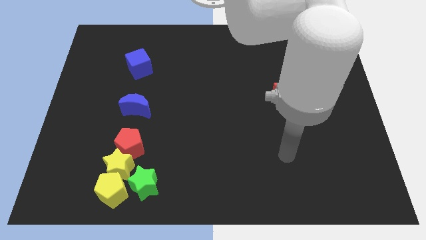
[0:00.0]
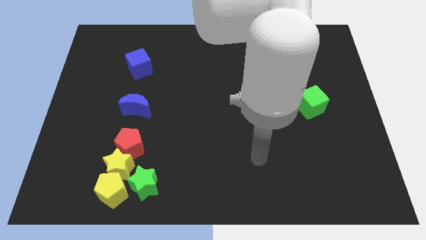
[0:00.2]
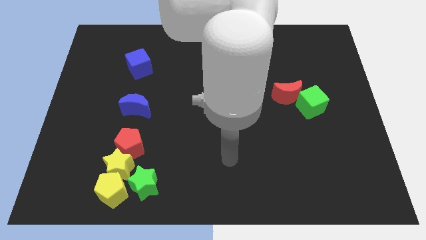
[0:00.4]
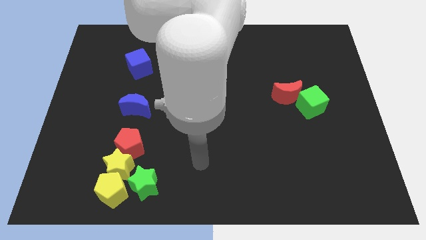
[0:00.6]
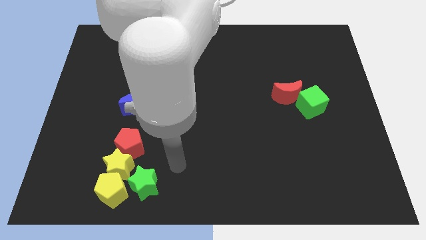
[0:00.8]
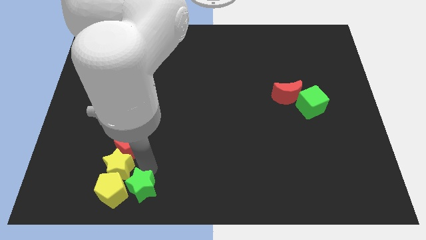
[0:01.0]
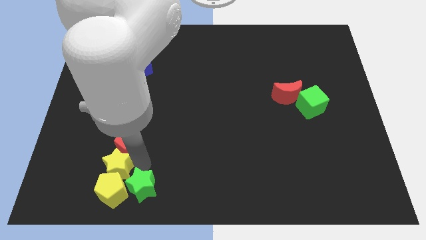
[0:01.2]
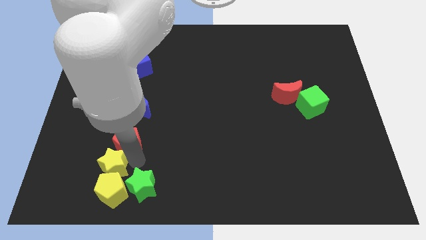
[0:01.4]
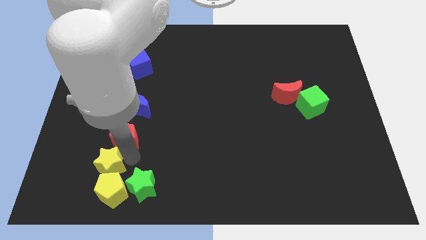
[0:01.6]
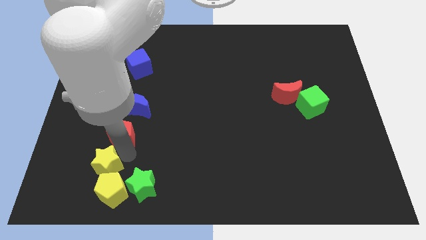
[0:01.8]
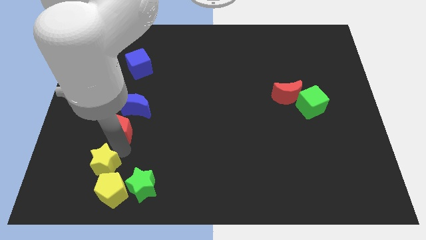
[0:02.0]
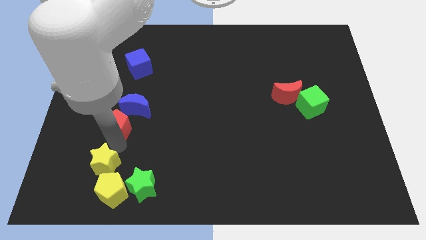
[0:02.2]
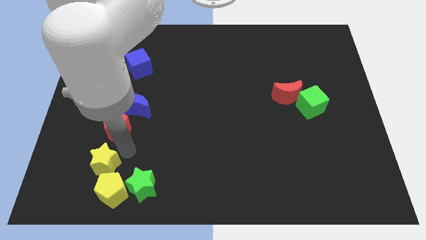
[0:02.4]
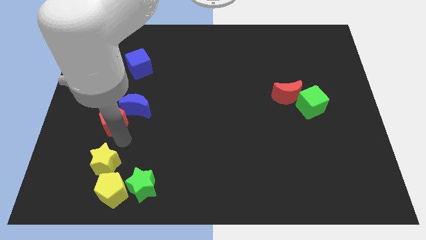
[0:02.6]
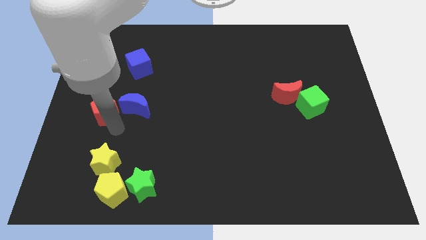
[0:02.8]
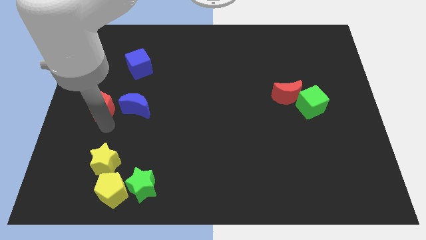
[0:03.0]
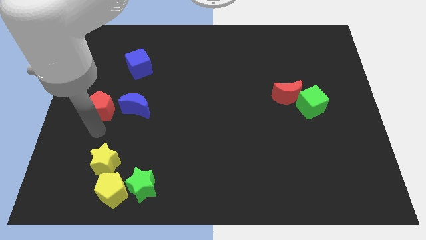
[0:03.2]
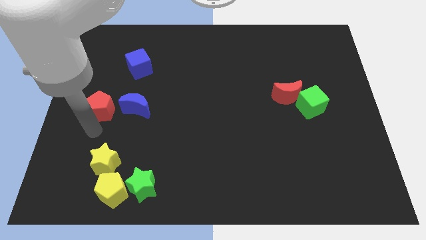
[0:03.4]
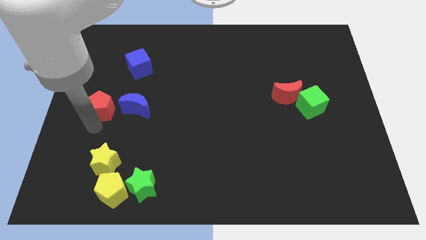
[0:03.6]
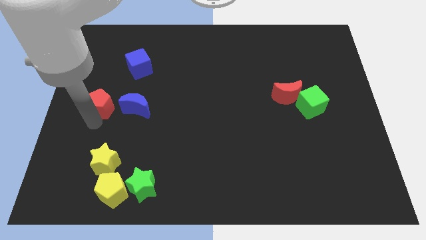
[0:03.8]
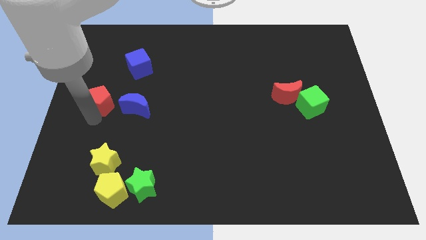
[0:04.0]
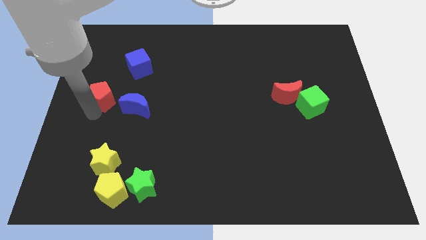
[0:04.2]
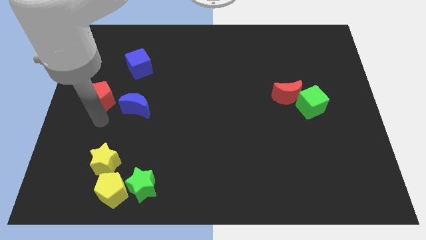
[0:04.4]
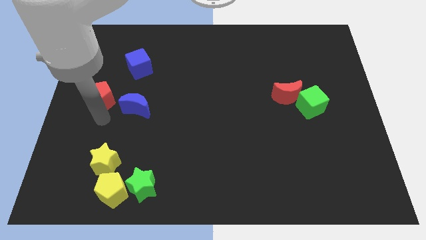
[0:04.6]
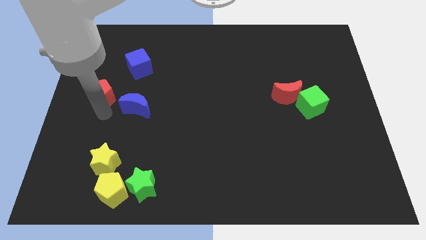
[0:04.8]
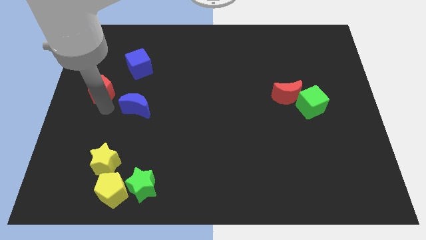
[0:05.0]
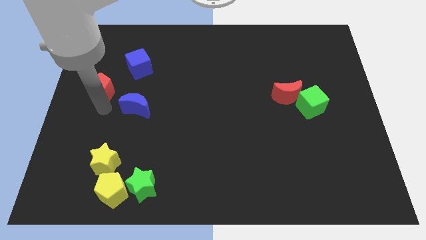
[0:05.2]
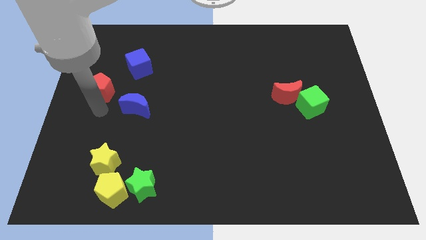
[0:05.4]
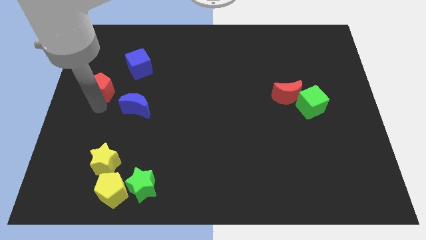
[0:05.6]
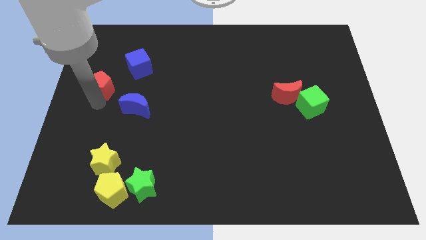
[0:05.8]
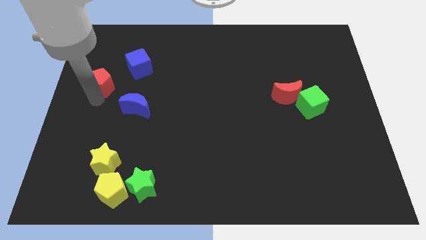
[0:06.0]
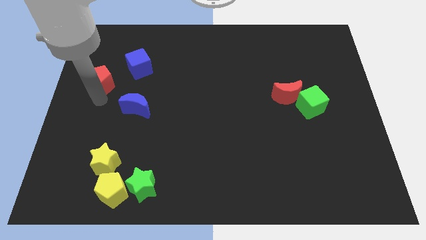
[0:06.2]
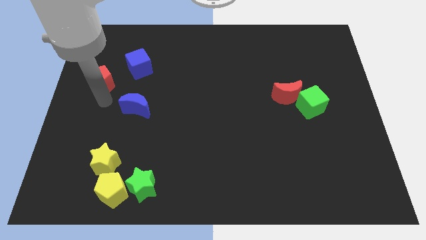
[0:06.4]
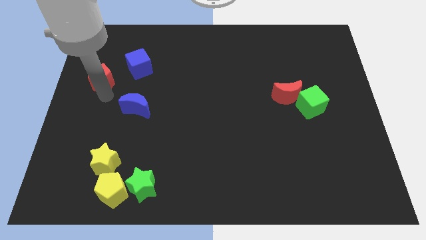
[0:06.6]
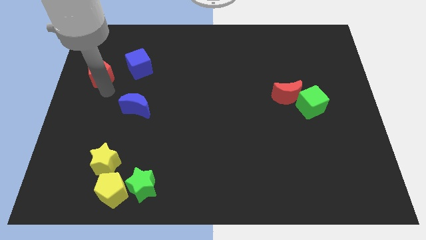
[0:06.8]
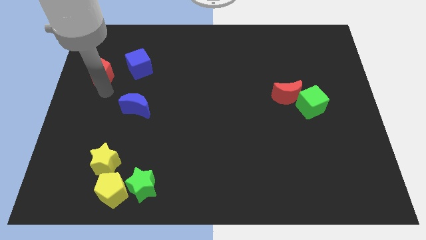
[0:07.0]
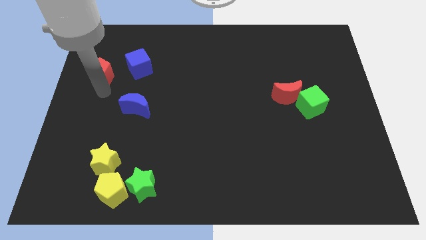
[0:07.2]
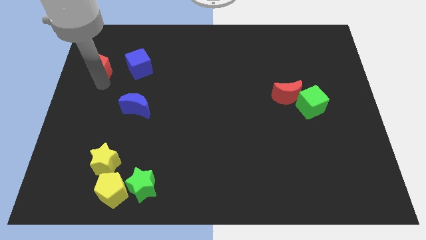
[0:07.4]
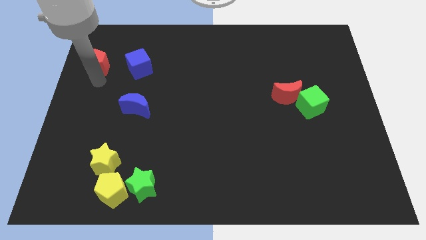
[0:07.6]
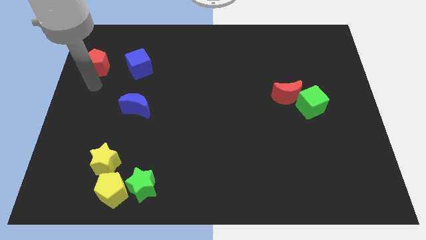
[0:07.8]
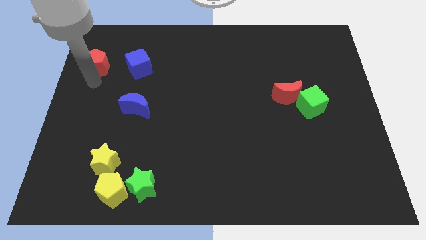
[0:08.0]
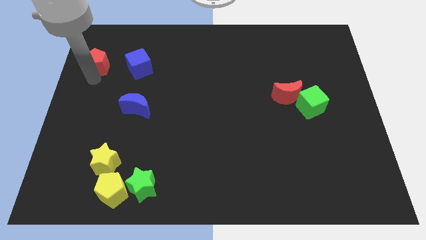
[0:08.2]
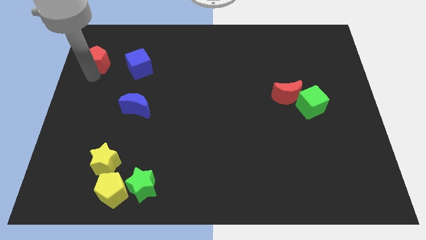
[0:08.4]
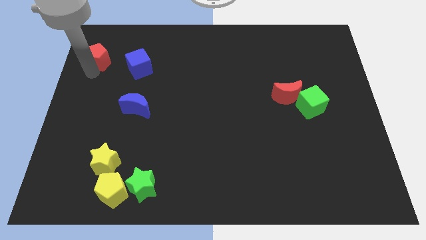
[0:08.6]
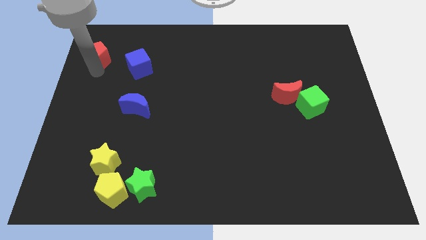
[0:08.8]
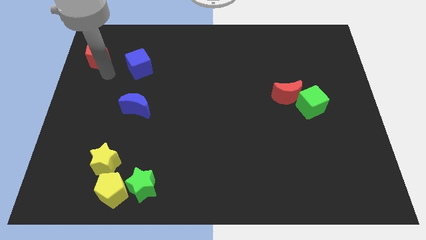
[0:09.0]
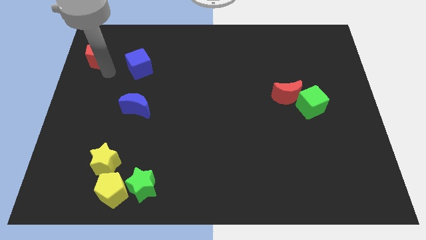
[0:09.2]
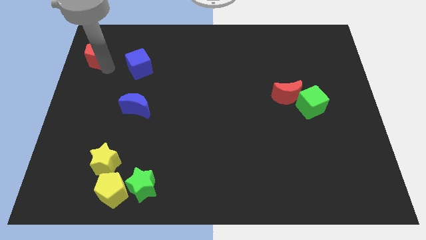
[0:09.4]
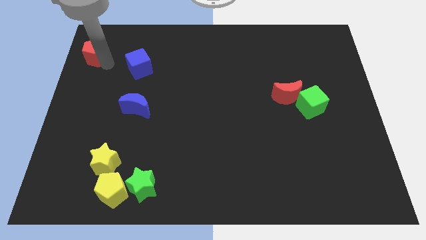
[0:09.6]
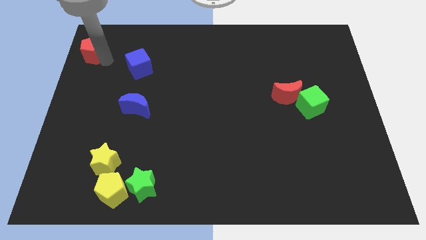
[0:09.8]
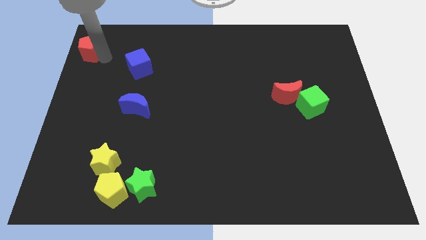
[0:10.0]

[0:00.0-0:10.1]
slide the red pentagon to the top left
